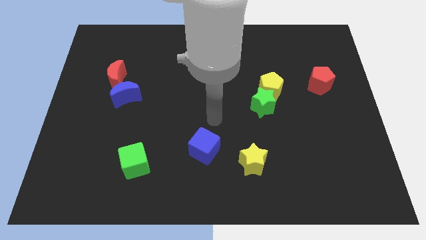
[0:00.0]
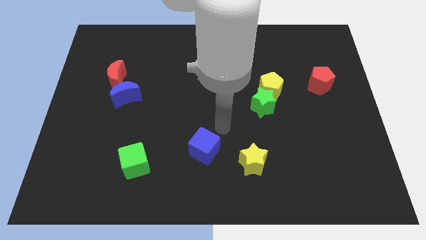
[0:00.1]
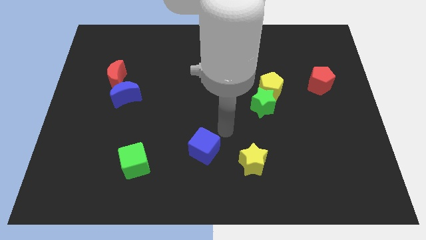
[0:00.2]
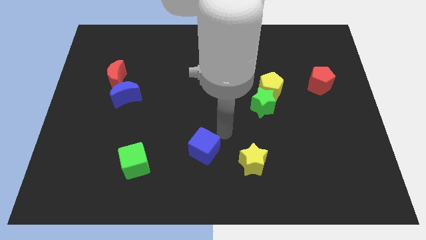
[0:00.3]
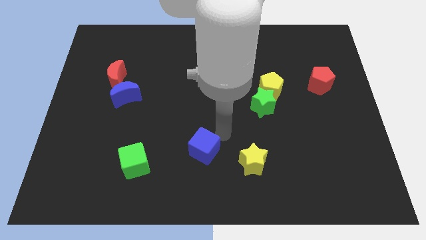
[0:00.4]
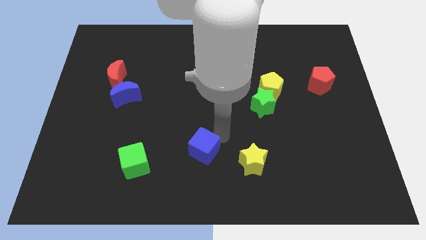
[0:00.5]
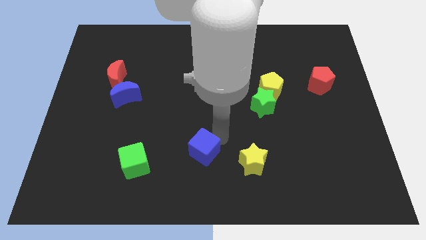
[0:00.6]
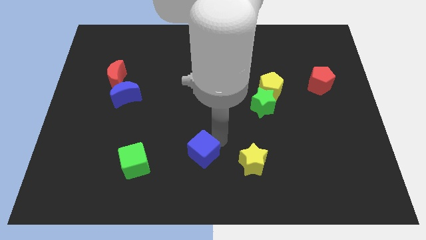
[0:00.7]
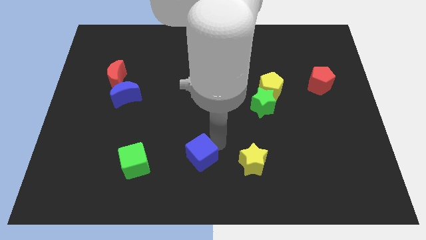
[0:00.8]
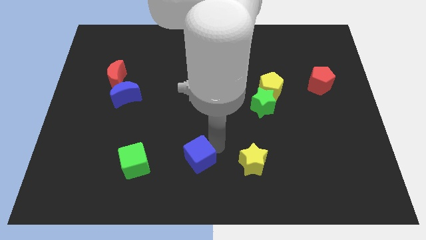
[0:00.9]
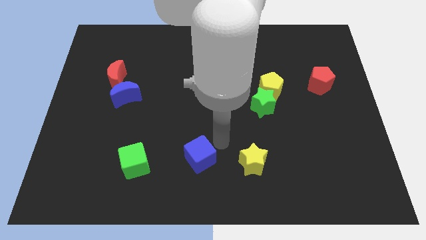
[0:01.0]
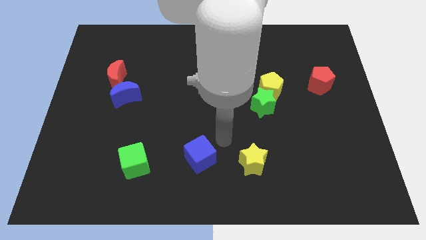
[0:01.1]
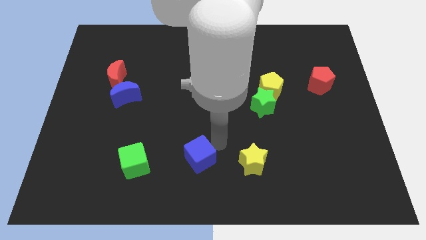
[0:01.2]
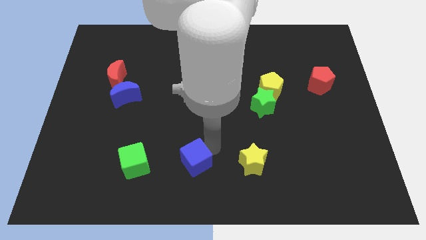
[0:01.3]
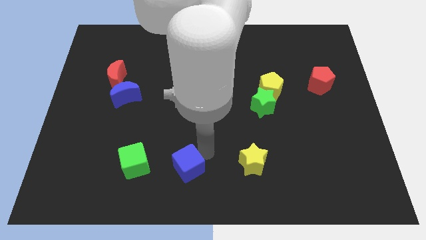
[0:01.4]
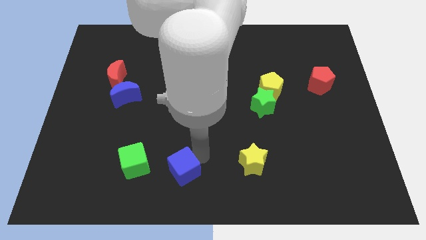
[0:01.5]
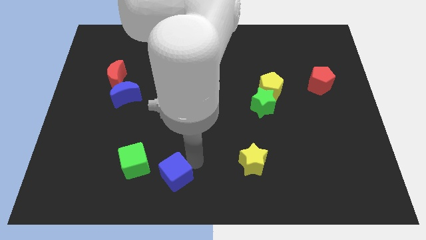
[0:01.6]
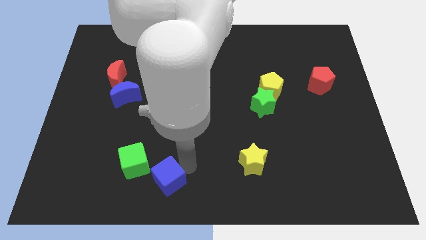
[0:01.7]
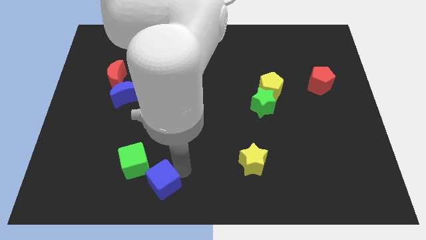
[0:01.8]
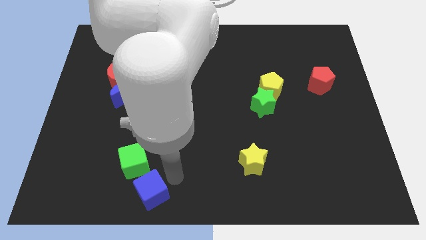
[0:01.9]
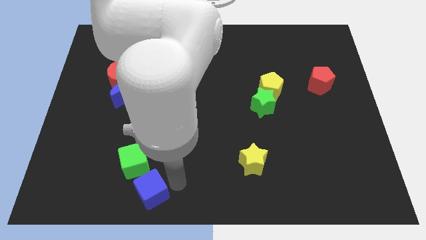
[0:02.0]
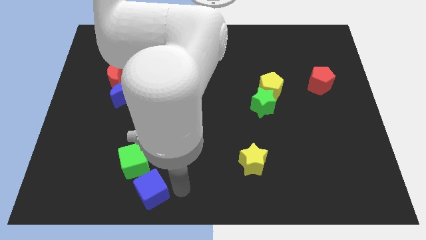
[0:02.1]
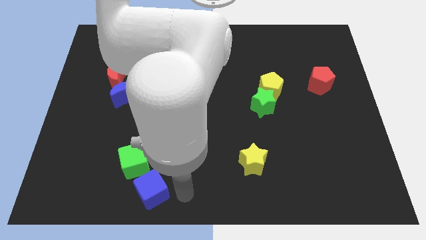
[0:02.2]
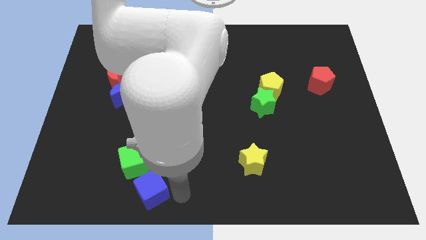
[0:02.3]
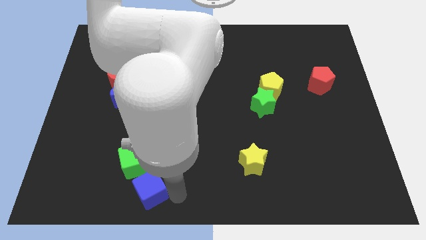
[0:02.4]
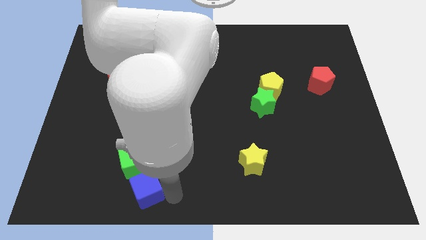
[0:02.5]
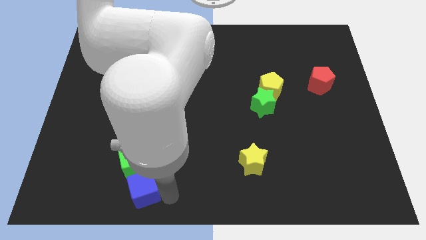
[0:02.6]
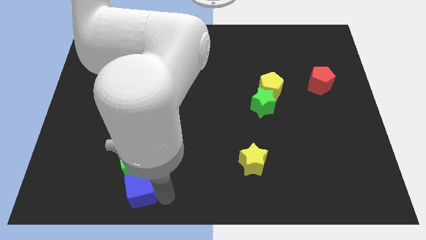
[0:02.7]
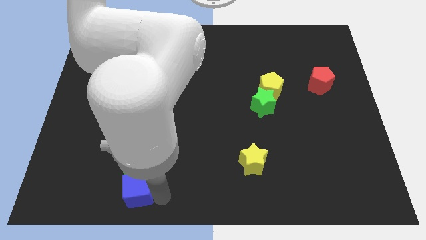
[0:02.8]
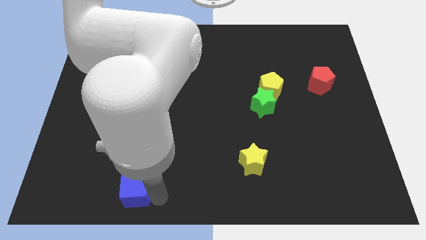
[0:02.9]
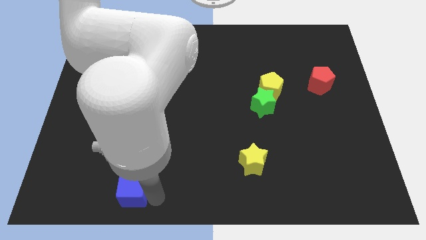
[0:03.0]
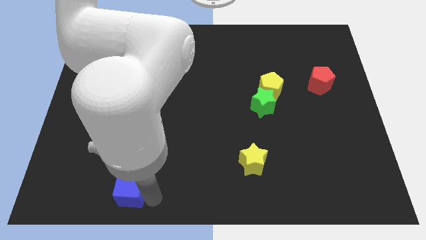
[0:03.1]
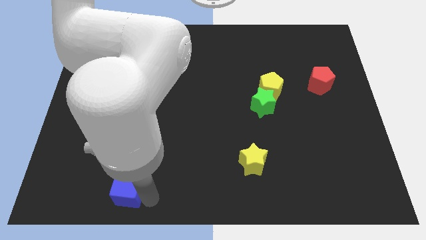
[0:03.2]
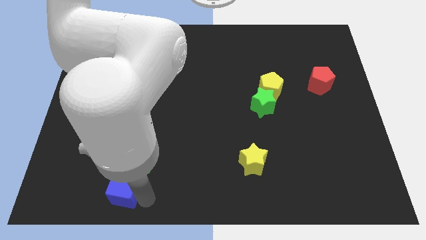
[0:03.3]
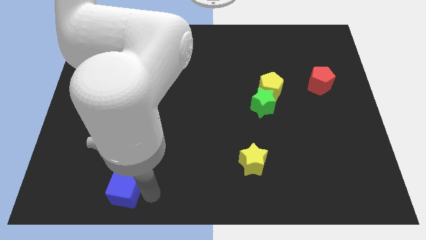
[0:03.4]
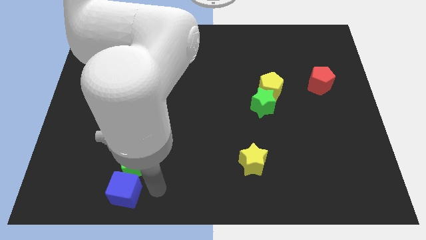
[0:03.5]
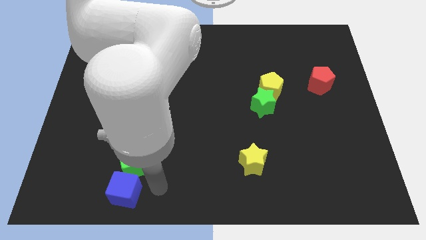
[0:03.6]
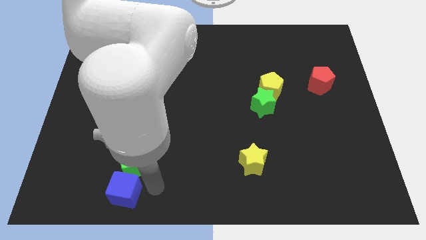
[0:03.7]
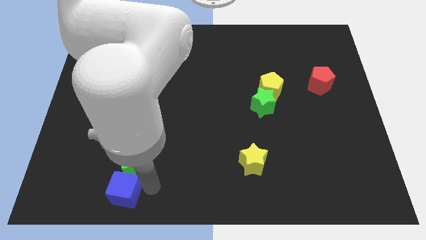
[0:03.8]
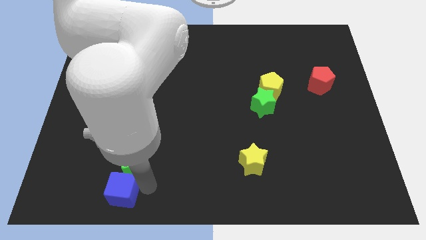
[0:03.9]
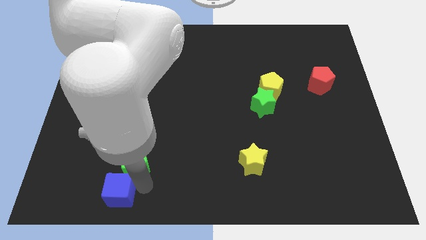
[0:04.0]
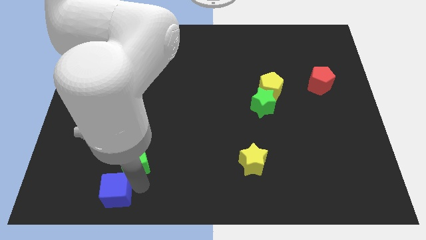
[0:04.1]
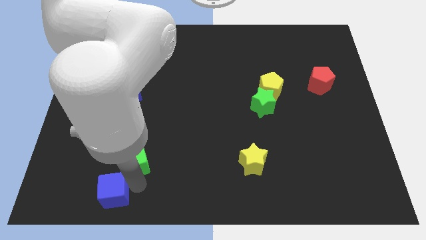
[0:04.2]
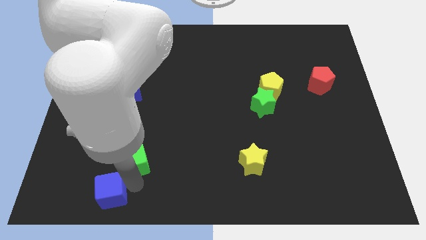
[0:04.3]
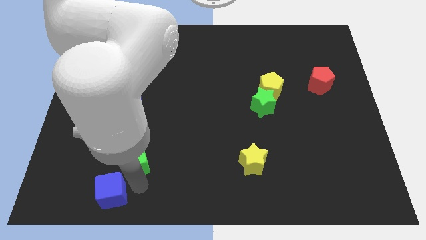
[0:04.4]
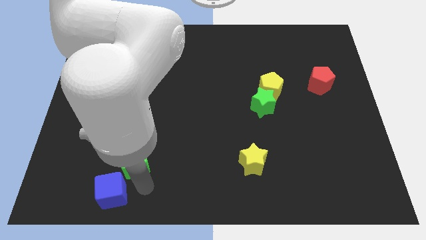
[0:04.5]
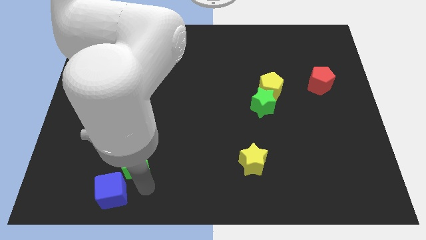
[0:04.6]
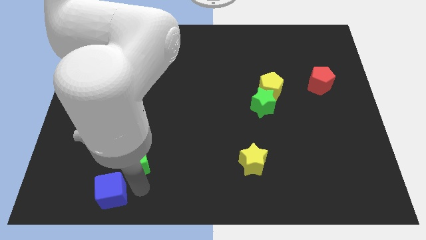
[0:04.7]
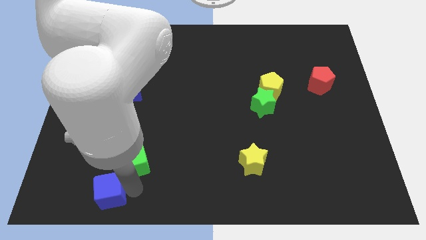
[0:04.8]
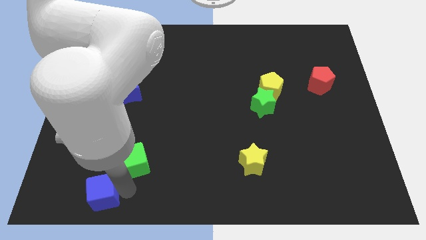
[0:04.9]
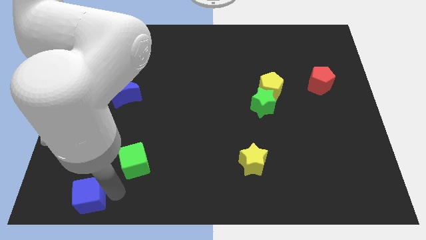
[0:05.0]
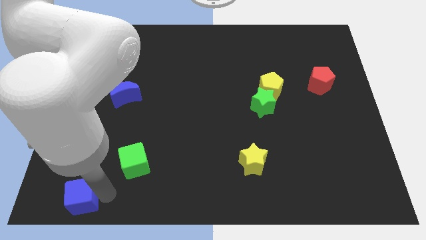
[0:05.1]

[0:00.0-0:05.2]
move the blue cube to the lower left corner

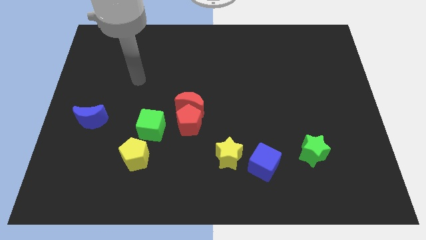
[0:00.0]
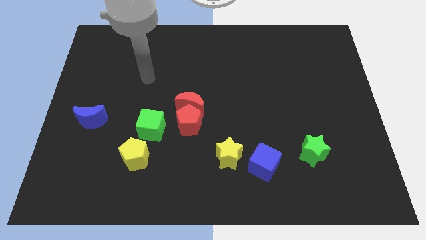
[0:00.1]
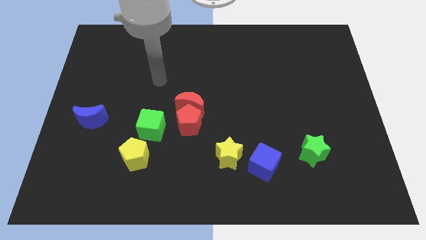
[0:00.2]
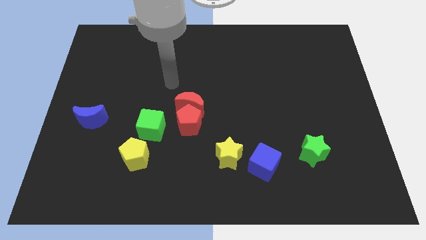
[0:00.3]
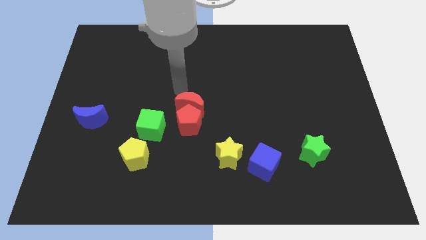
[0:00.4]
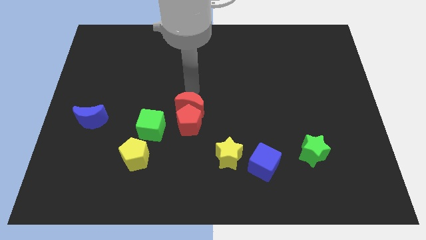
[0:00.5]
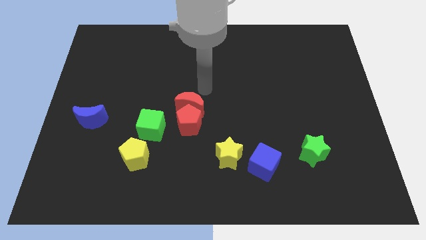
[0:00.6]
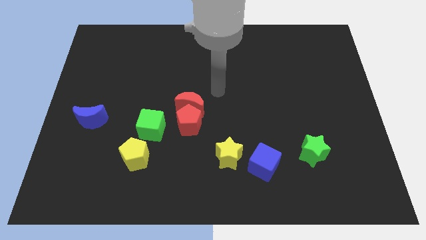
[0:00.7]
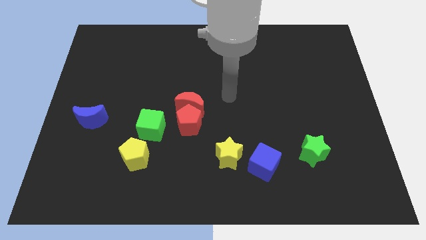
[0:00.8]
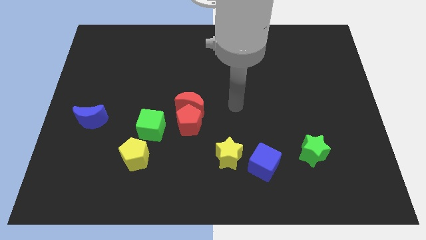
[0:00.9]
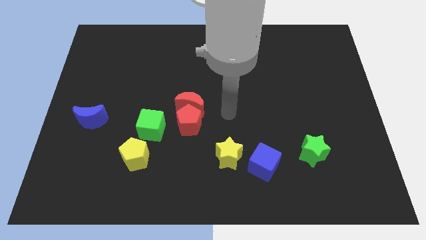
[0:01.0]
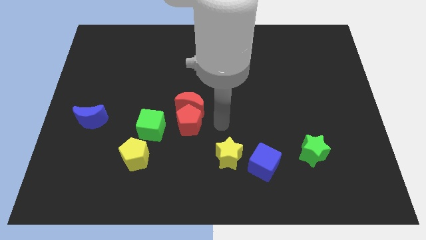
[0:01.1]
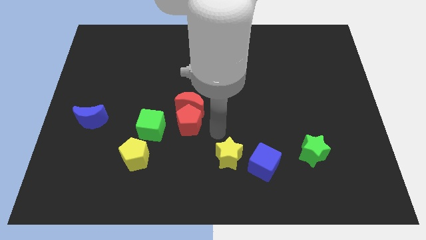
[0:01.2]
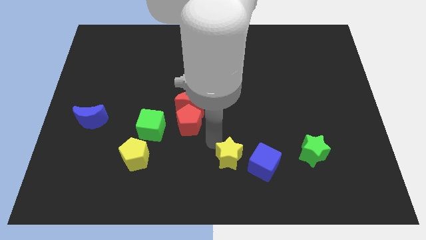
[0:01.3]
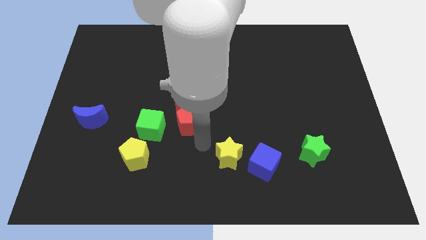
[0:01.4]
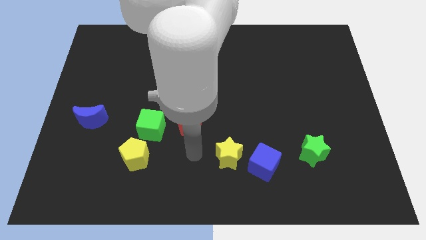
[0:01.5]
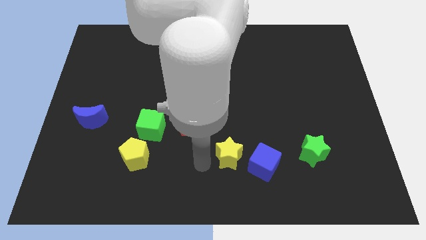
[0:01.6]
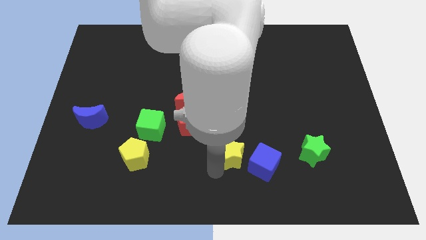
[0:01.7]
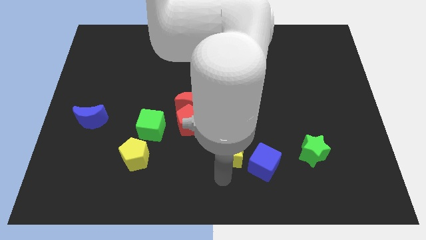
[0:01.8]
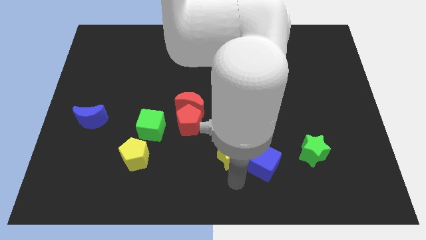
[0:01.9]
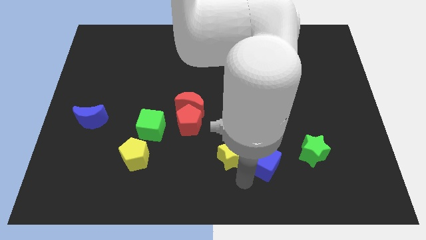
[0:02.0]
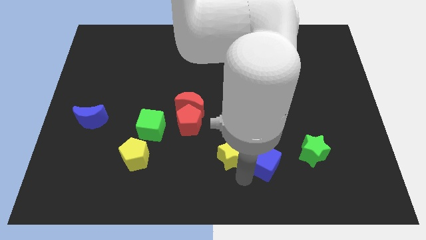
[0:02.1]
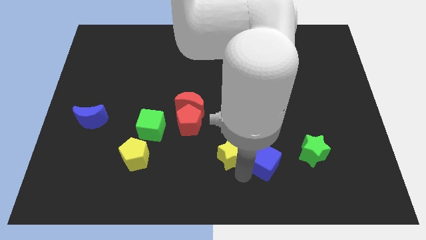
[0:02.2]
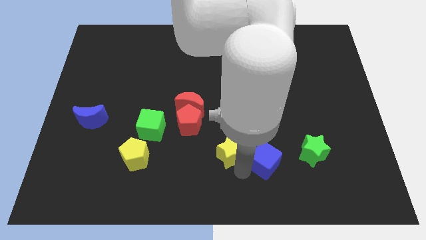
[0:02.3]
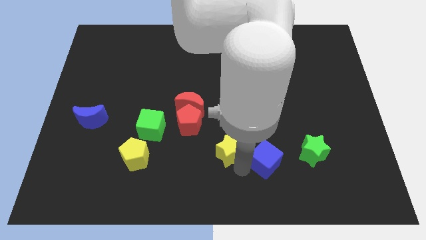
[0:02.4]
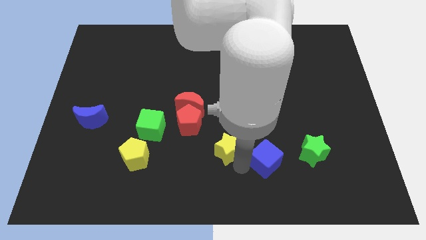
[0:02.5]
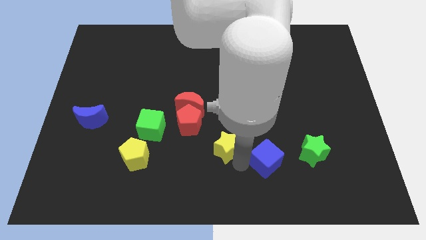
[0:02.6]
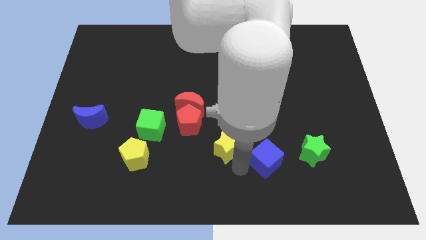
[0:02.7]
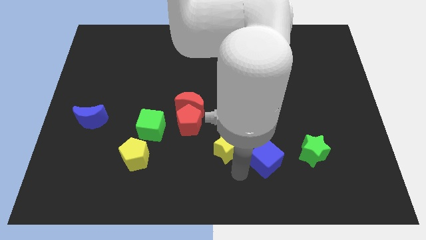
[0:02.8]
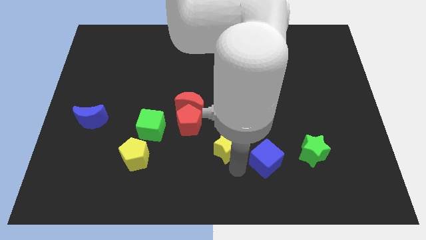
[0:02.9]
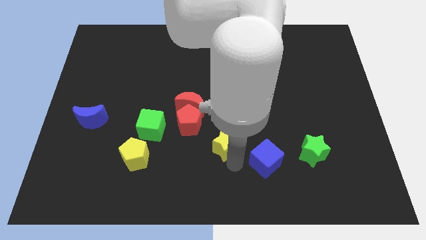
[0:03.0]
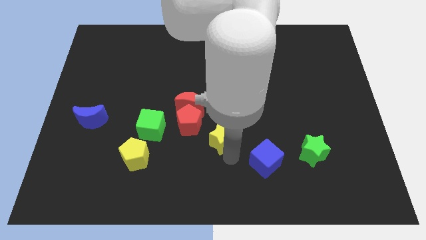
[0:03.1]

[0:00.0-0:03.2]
push the yellow star to the center of the board

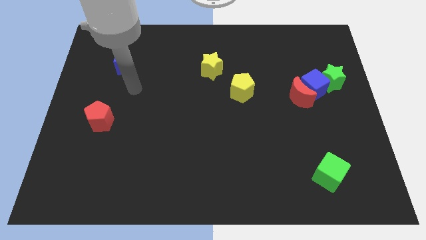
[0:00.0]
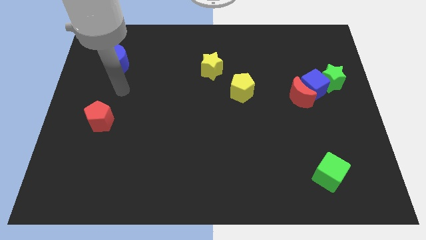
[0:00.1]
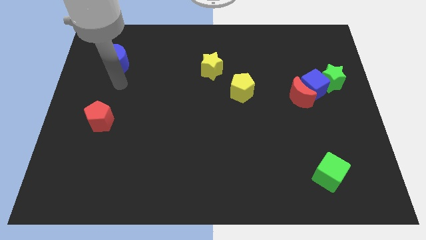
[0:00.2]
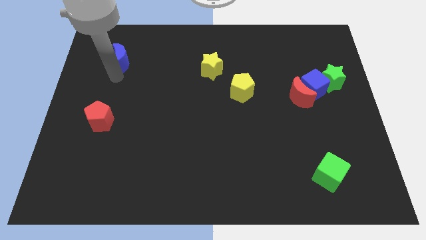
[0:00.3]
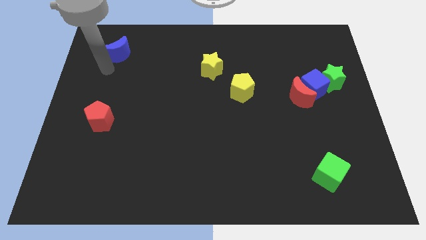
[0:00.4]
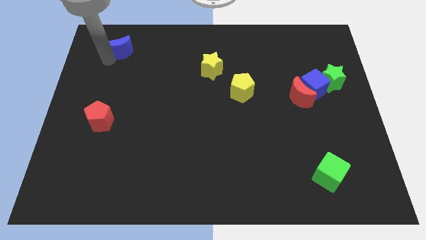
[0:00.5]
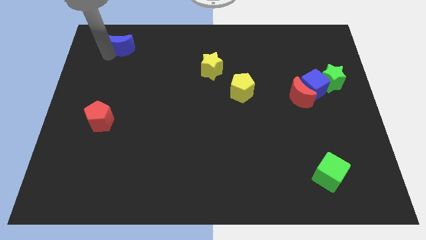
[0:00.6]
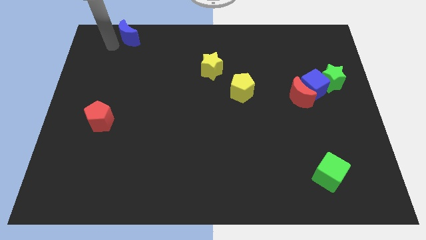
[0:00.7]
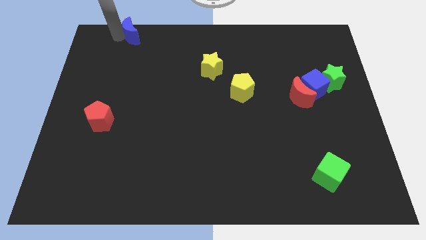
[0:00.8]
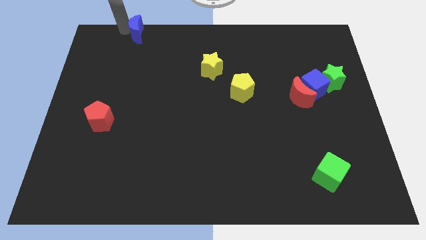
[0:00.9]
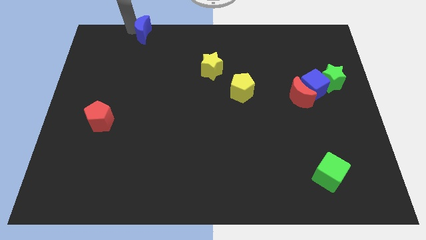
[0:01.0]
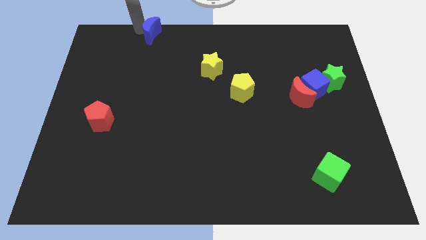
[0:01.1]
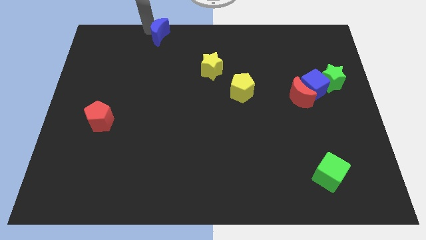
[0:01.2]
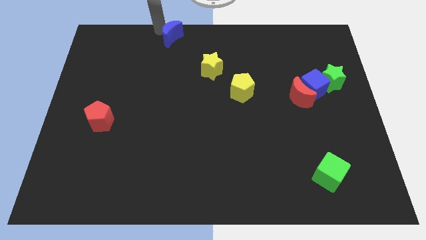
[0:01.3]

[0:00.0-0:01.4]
push the blue moon to the towards your base
